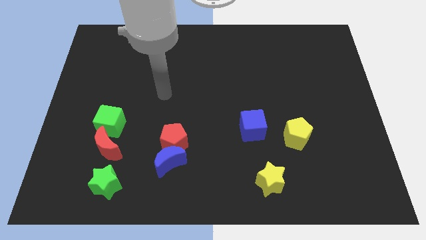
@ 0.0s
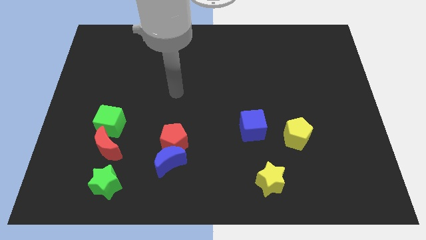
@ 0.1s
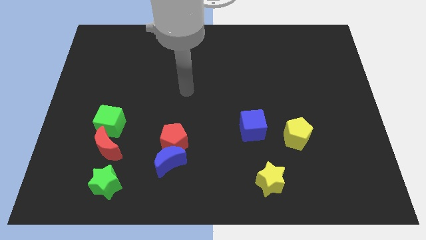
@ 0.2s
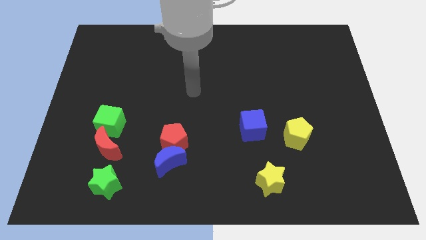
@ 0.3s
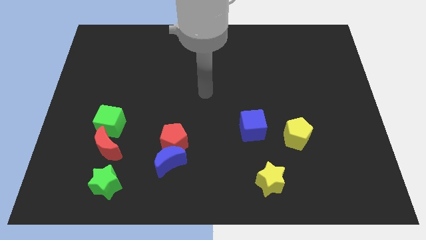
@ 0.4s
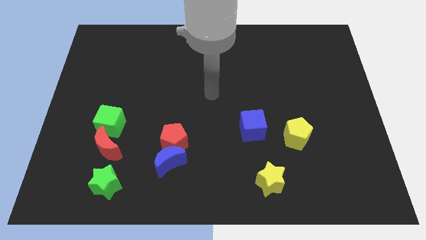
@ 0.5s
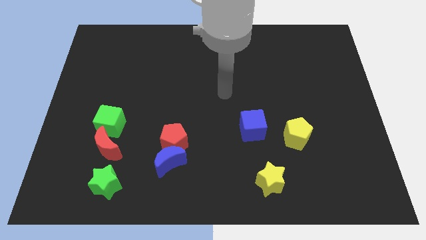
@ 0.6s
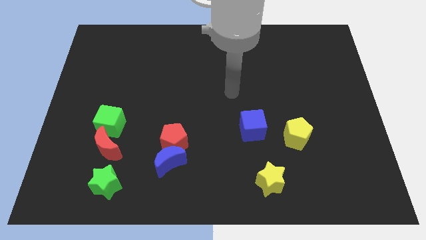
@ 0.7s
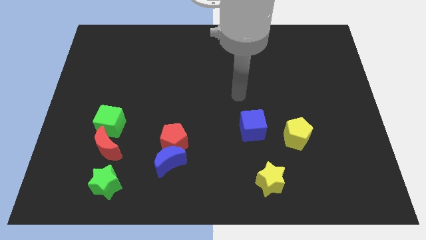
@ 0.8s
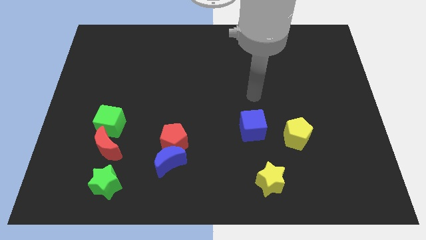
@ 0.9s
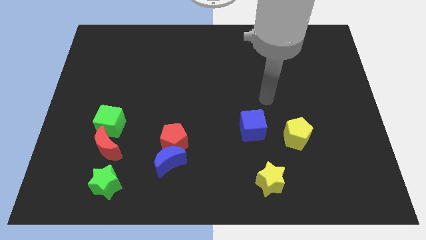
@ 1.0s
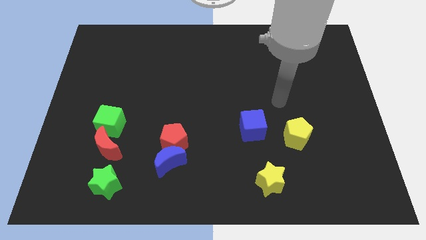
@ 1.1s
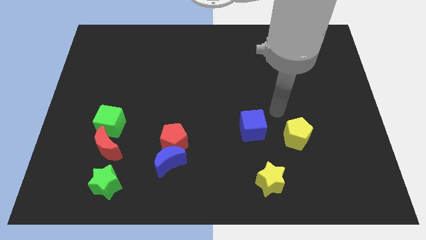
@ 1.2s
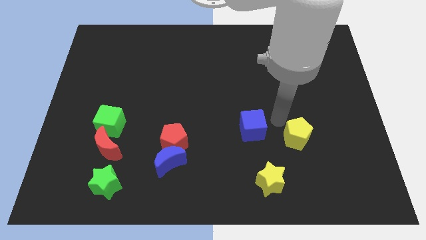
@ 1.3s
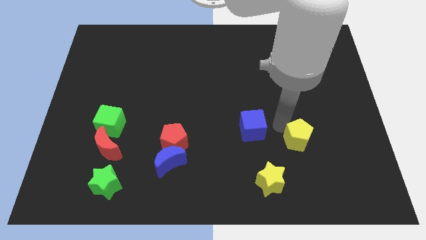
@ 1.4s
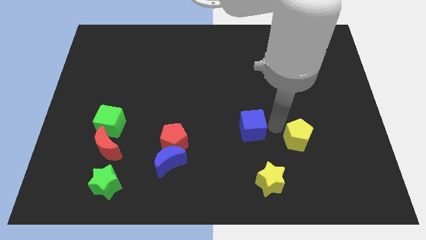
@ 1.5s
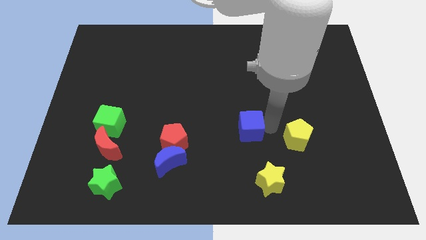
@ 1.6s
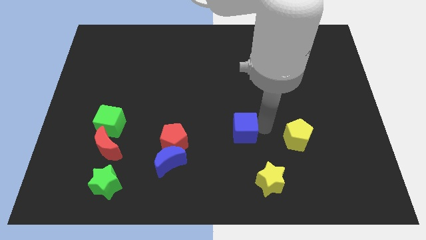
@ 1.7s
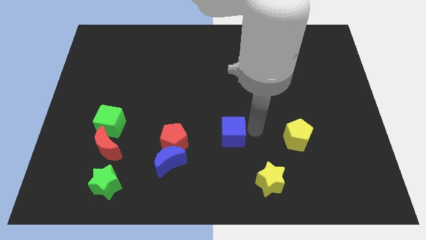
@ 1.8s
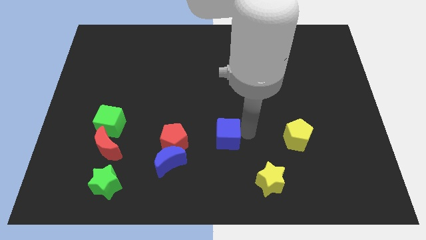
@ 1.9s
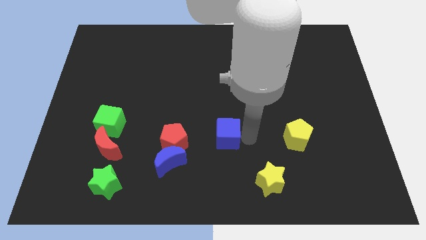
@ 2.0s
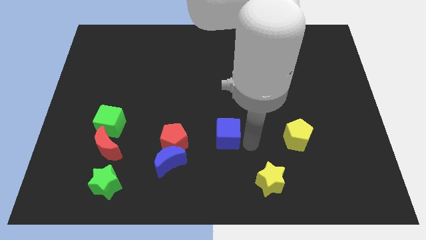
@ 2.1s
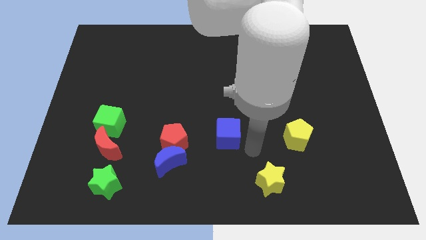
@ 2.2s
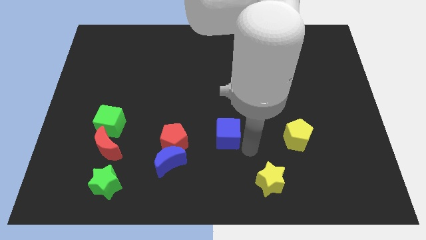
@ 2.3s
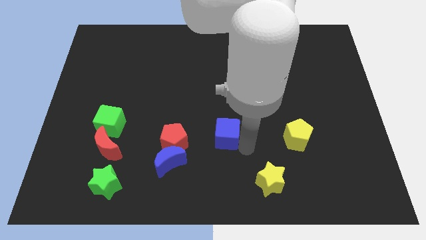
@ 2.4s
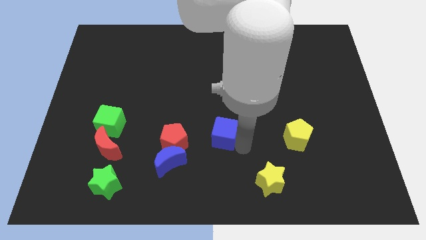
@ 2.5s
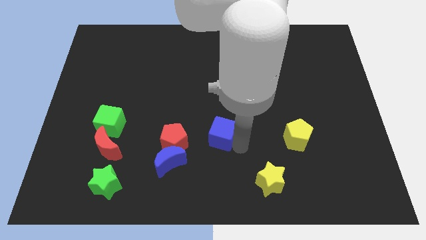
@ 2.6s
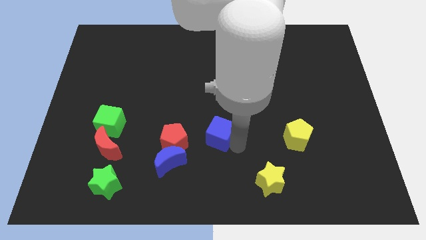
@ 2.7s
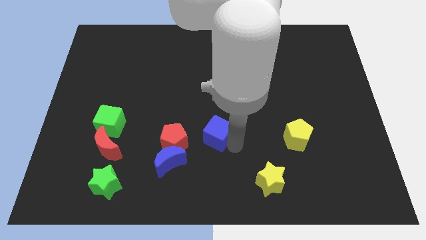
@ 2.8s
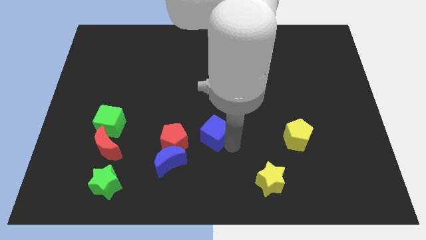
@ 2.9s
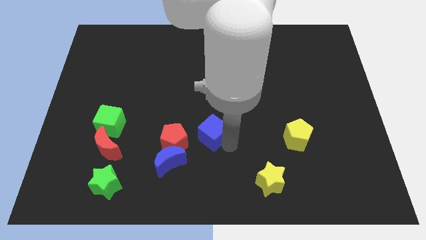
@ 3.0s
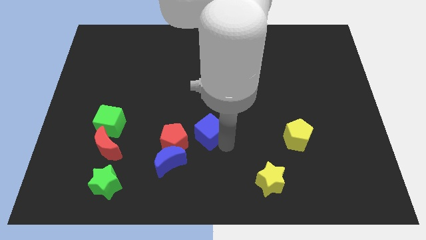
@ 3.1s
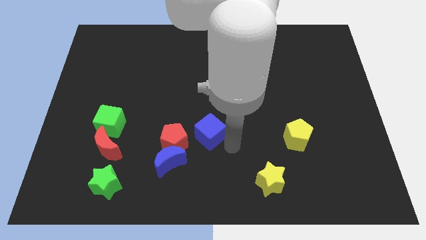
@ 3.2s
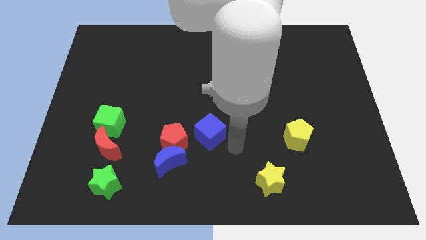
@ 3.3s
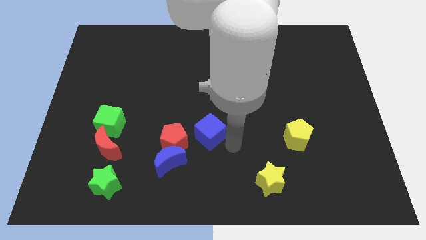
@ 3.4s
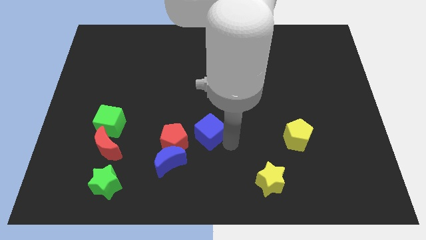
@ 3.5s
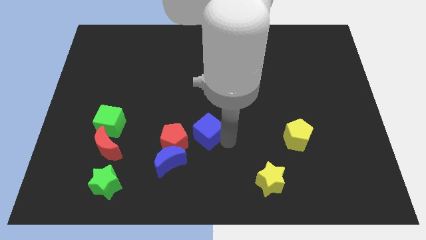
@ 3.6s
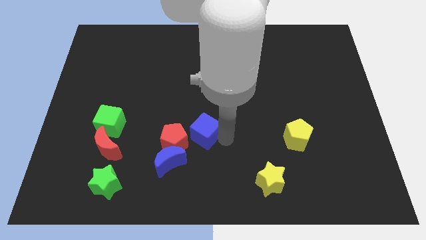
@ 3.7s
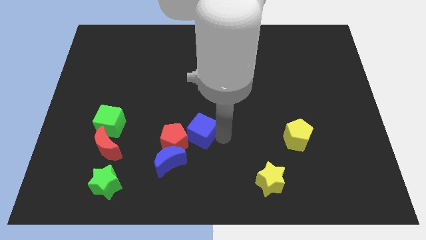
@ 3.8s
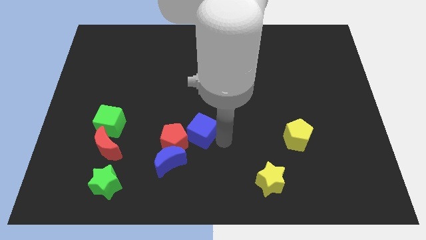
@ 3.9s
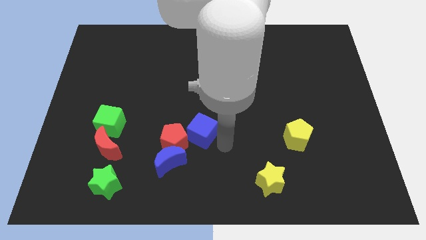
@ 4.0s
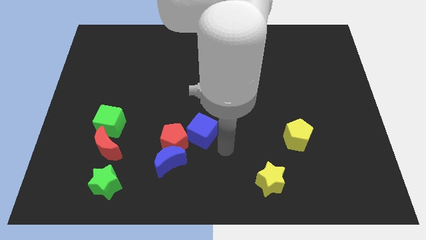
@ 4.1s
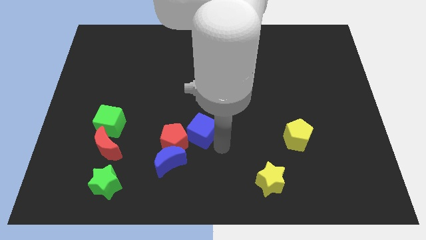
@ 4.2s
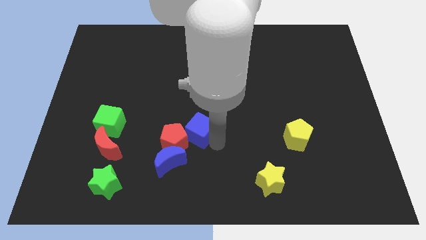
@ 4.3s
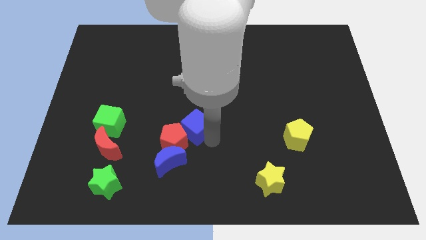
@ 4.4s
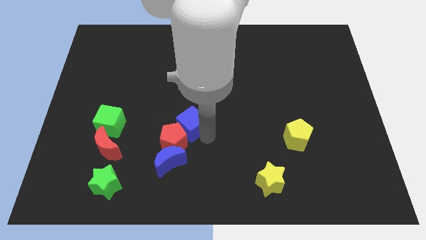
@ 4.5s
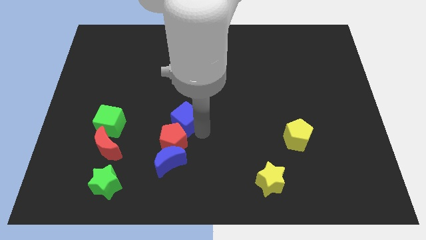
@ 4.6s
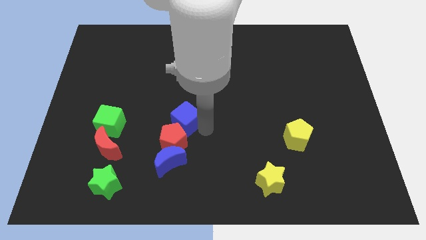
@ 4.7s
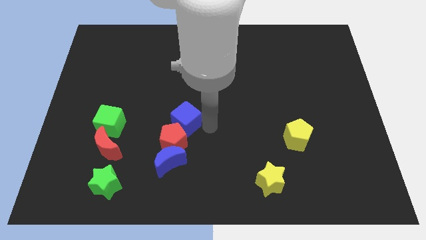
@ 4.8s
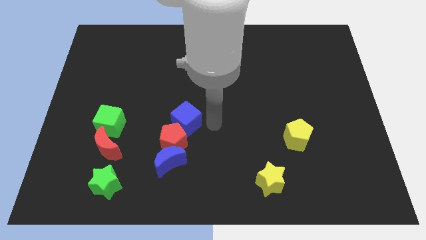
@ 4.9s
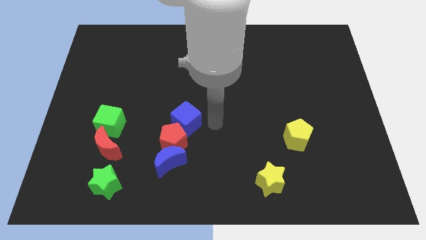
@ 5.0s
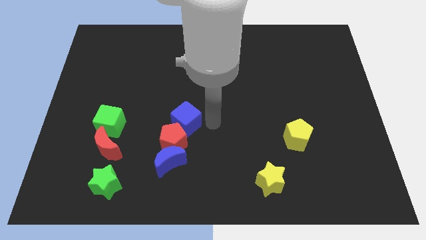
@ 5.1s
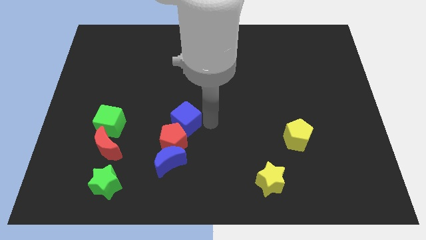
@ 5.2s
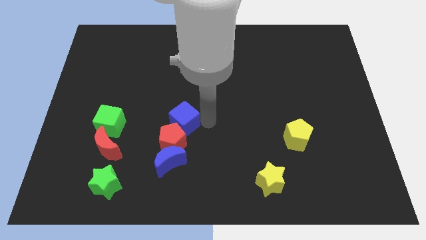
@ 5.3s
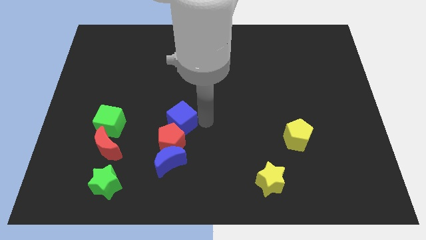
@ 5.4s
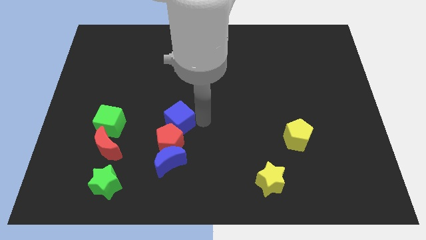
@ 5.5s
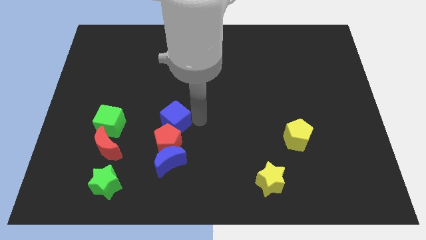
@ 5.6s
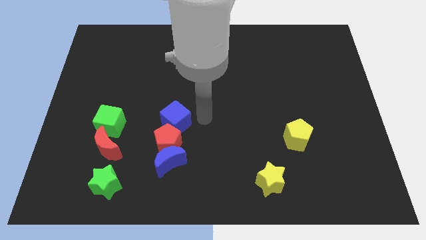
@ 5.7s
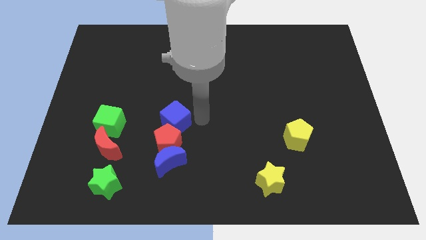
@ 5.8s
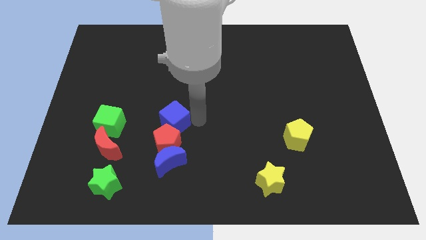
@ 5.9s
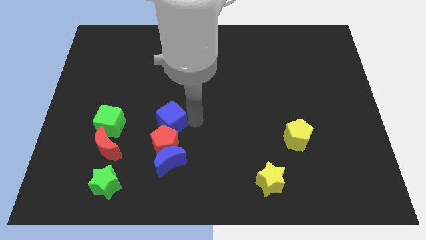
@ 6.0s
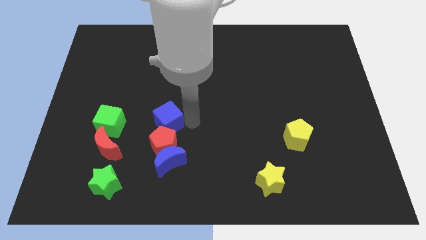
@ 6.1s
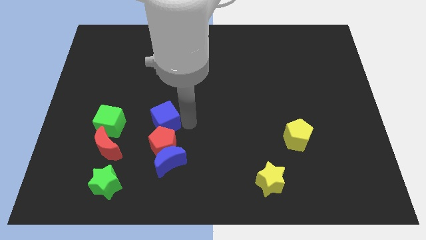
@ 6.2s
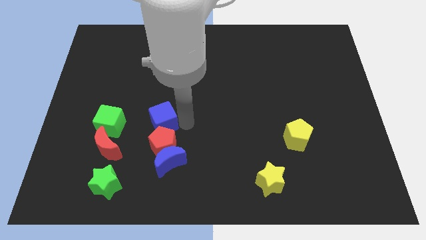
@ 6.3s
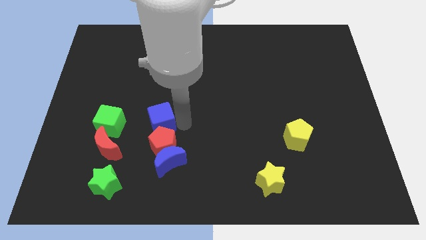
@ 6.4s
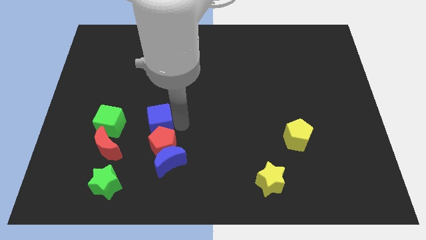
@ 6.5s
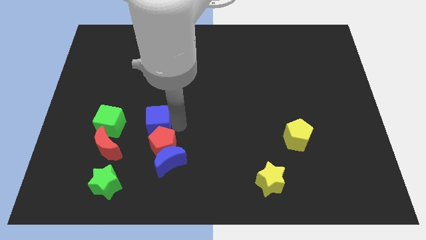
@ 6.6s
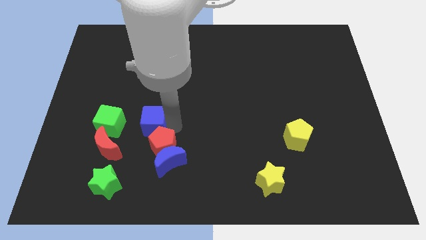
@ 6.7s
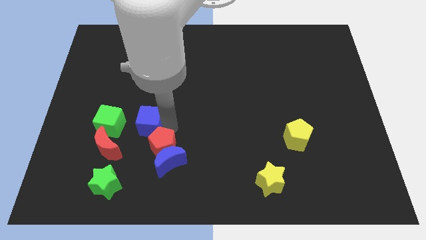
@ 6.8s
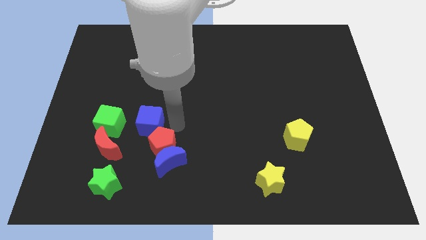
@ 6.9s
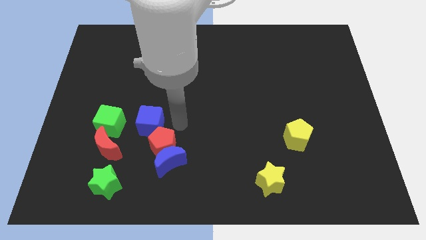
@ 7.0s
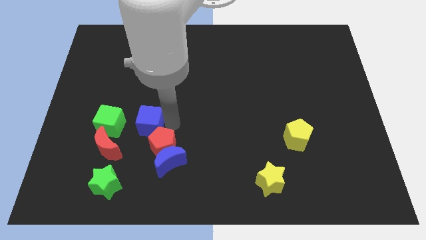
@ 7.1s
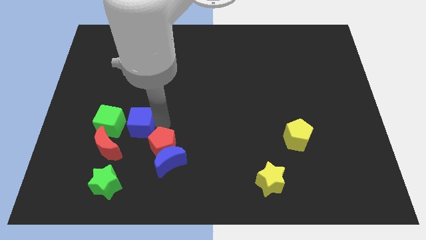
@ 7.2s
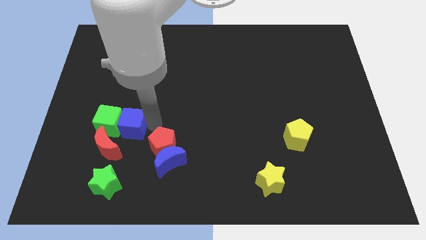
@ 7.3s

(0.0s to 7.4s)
push the blue cube towards the green cube

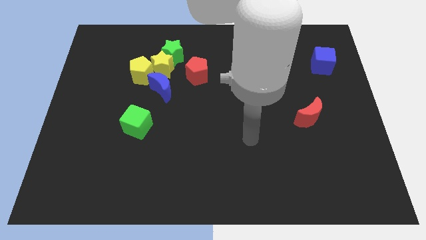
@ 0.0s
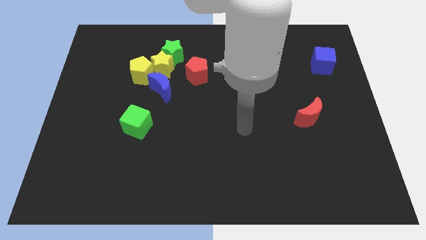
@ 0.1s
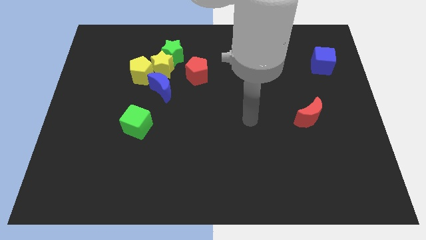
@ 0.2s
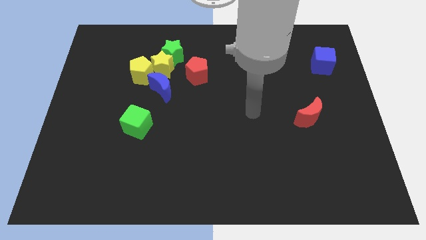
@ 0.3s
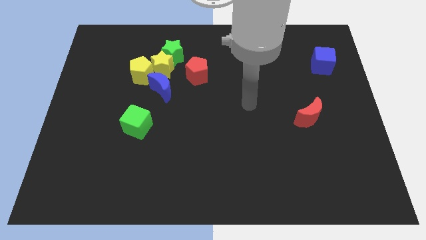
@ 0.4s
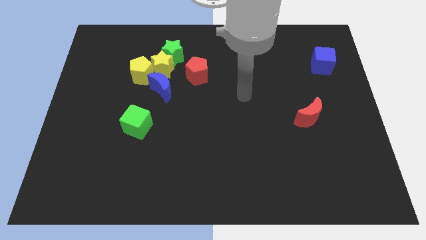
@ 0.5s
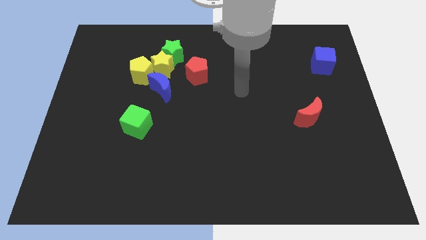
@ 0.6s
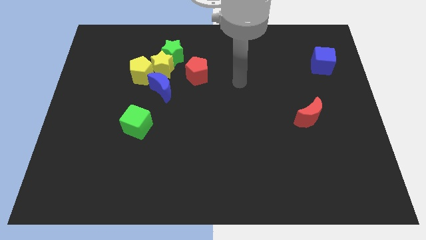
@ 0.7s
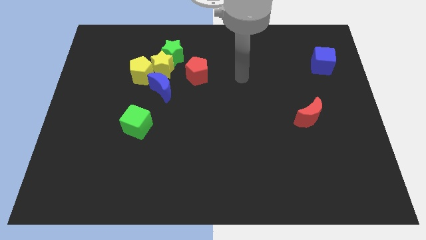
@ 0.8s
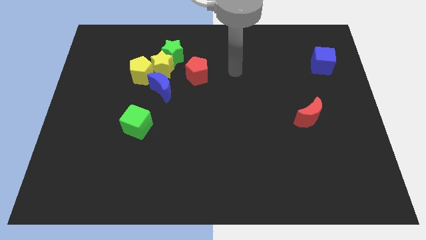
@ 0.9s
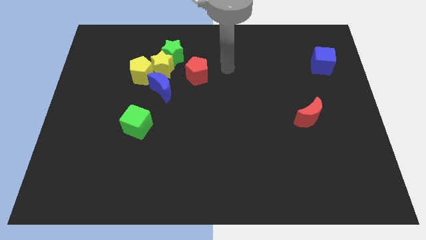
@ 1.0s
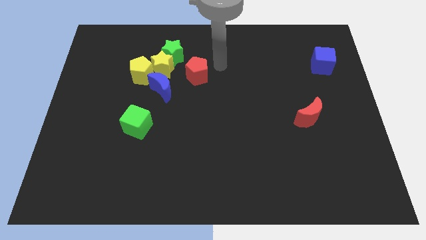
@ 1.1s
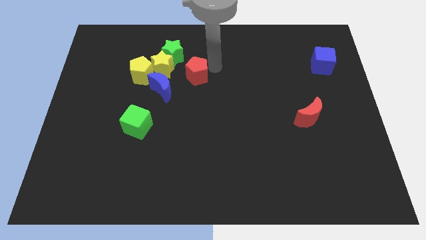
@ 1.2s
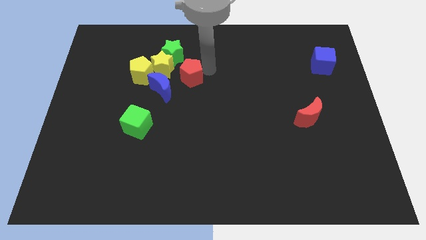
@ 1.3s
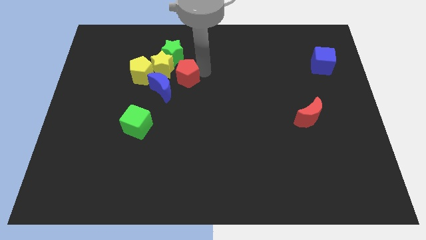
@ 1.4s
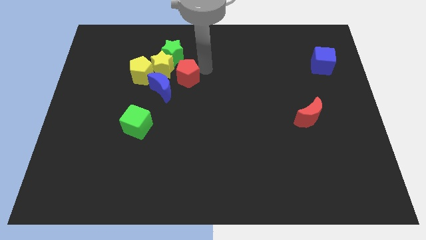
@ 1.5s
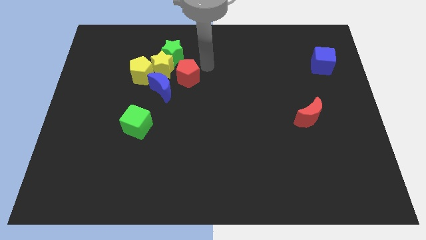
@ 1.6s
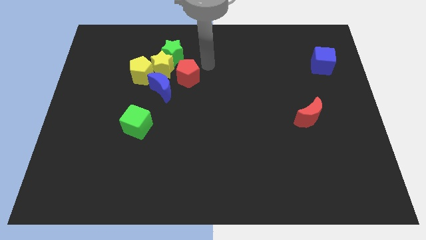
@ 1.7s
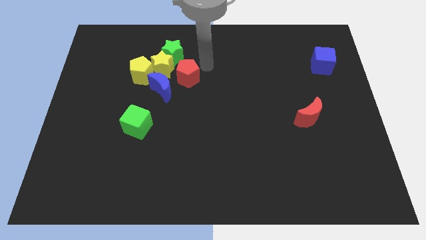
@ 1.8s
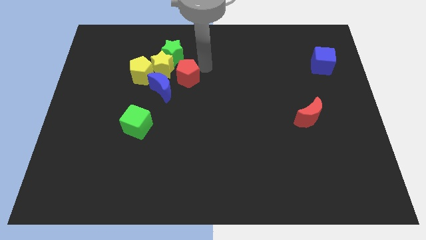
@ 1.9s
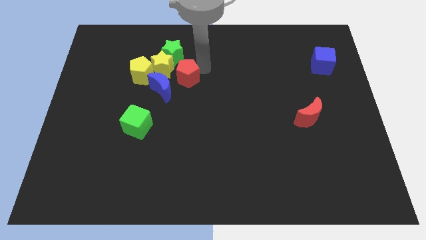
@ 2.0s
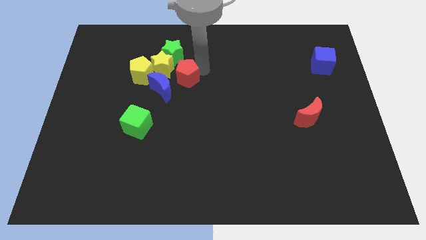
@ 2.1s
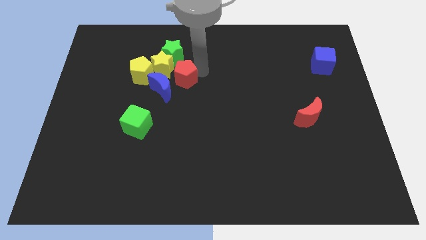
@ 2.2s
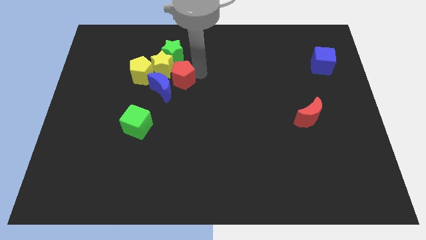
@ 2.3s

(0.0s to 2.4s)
put the red pentagon next to the blue moon
